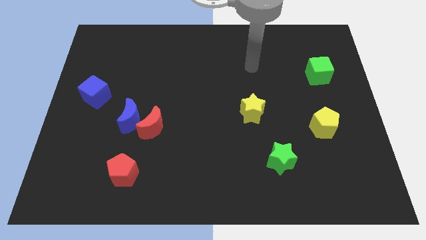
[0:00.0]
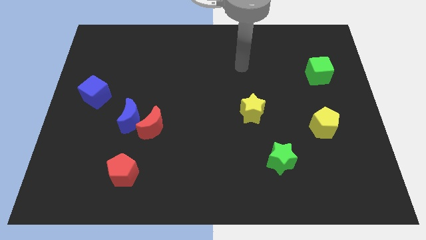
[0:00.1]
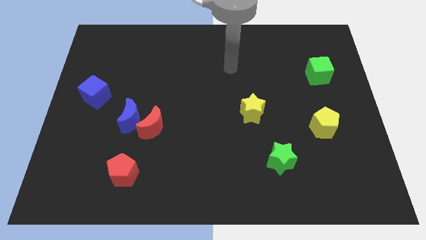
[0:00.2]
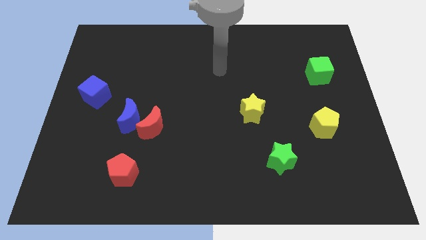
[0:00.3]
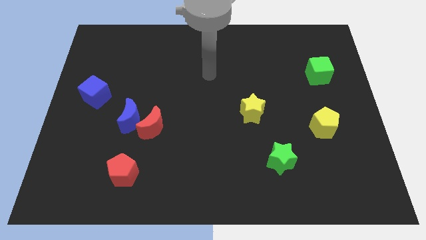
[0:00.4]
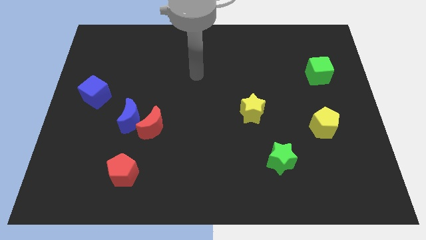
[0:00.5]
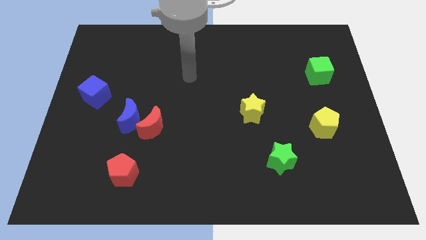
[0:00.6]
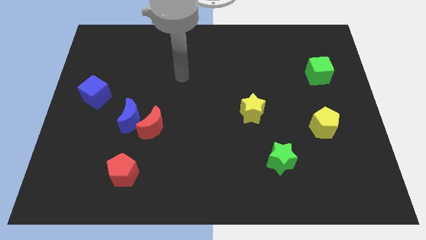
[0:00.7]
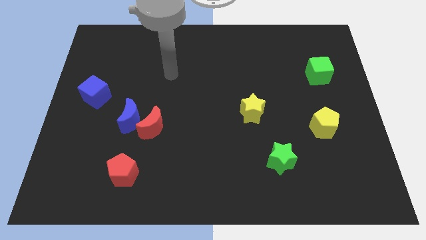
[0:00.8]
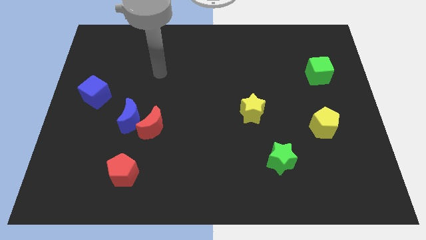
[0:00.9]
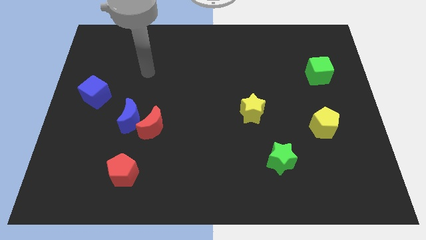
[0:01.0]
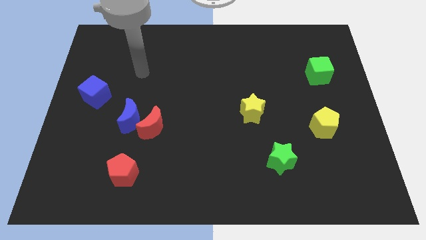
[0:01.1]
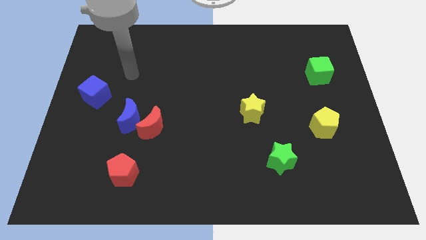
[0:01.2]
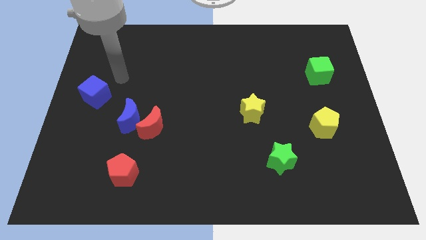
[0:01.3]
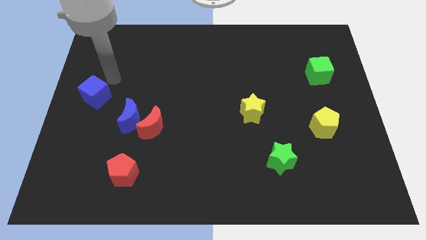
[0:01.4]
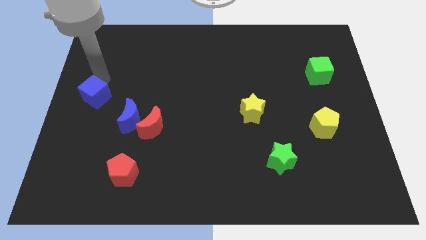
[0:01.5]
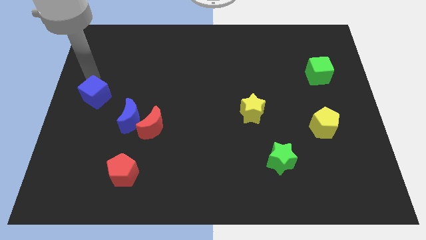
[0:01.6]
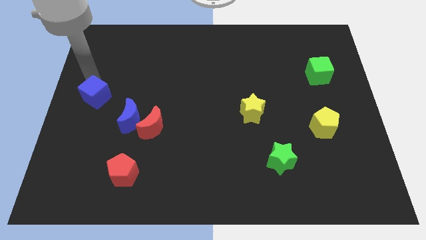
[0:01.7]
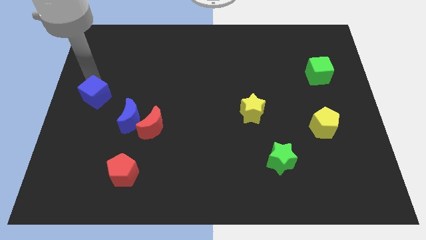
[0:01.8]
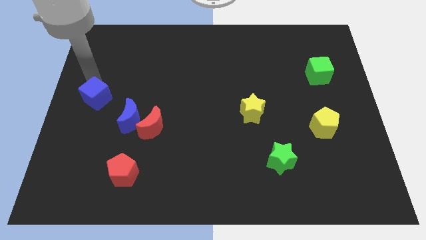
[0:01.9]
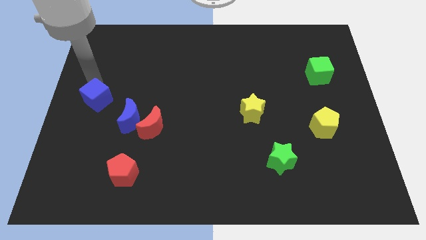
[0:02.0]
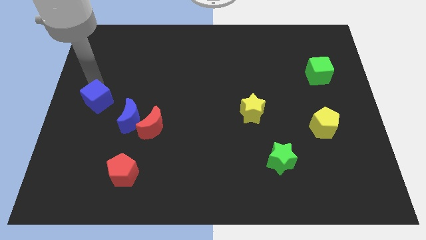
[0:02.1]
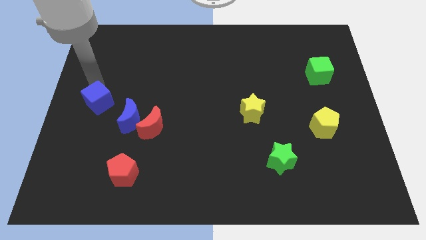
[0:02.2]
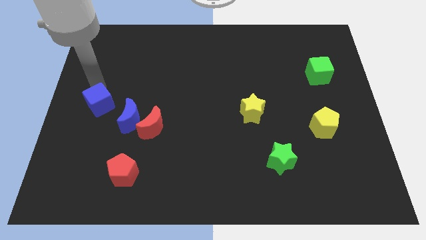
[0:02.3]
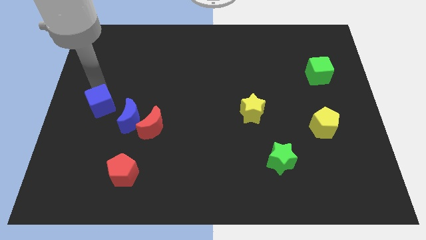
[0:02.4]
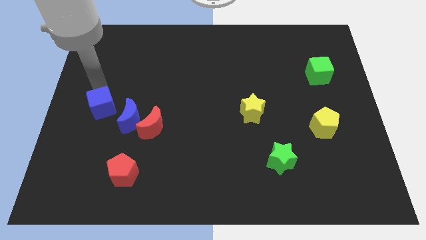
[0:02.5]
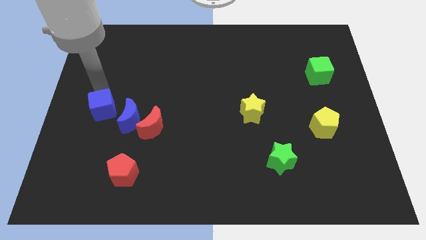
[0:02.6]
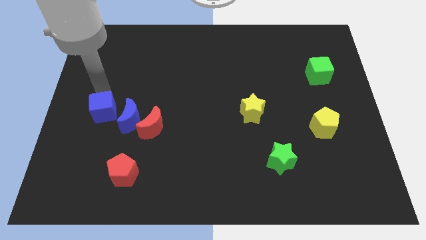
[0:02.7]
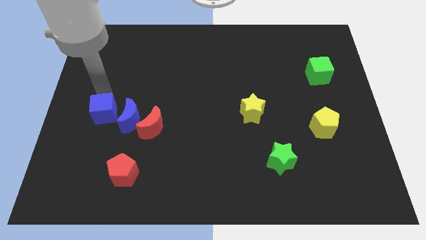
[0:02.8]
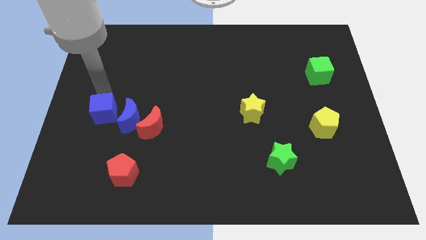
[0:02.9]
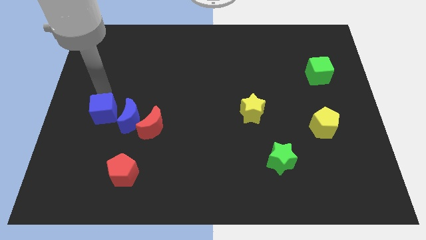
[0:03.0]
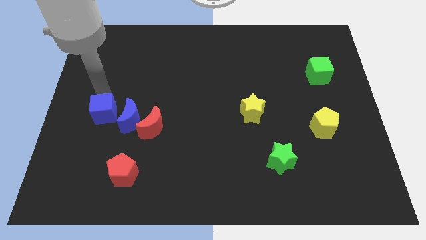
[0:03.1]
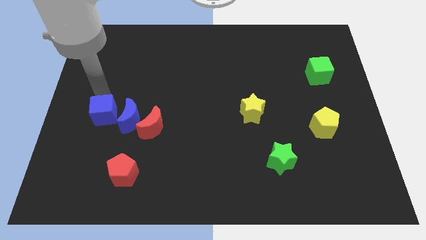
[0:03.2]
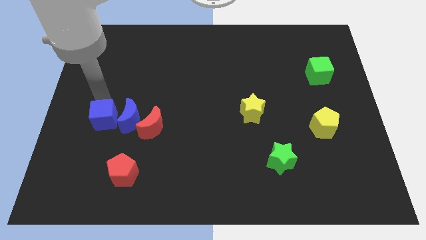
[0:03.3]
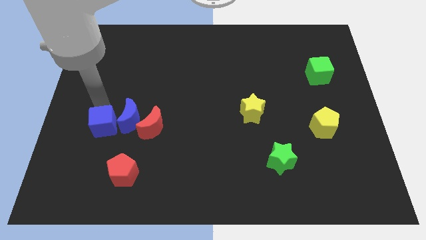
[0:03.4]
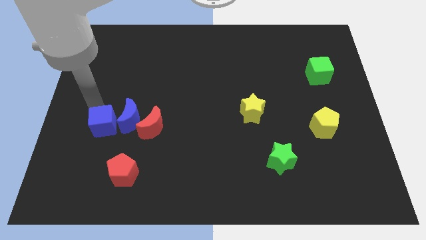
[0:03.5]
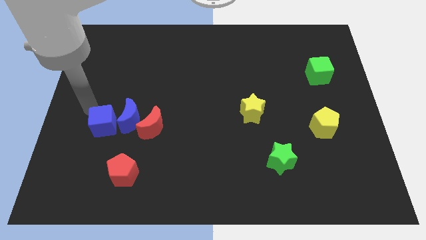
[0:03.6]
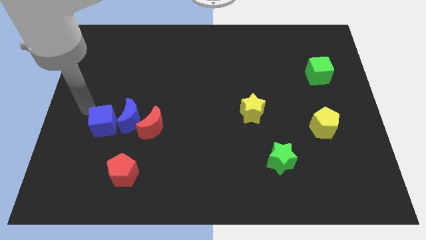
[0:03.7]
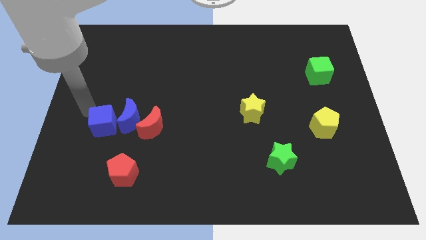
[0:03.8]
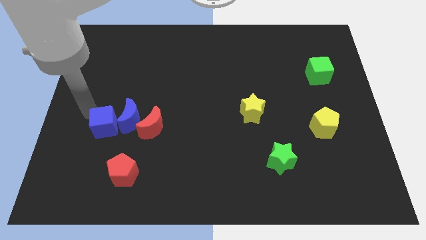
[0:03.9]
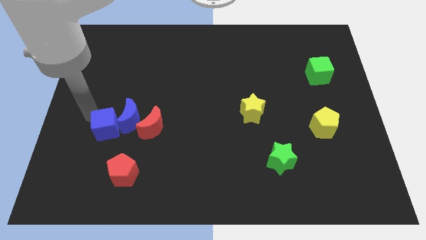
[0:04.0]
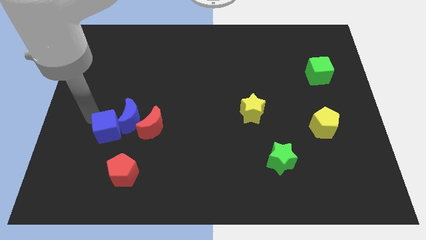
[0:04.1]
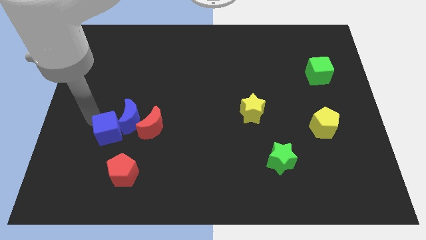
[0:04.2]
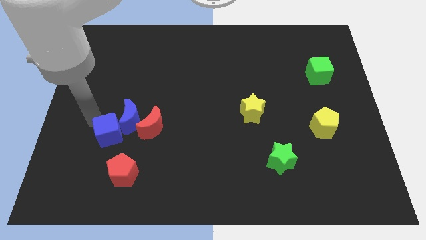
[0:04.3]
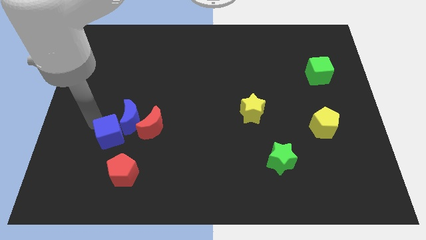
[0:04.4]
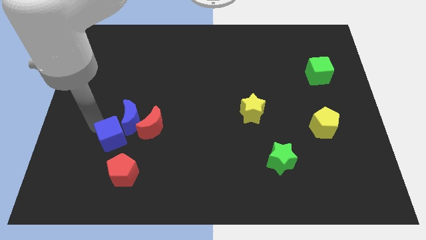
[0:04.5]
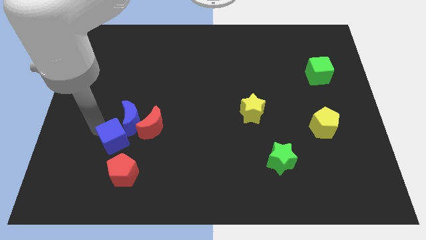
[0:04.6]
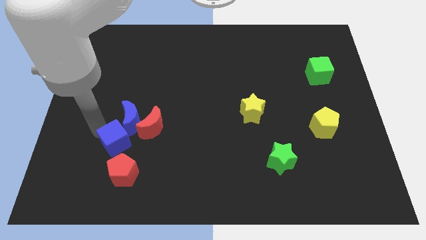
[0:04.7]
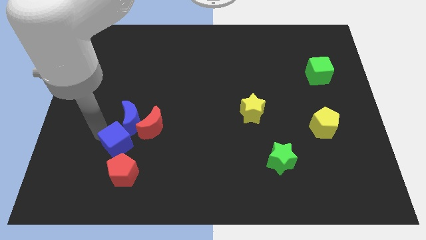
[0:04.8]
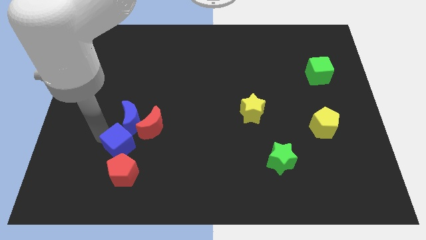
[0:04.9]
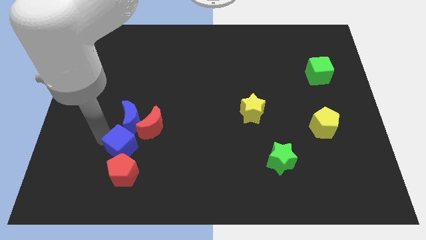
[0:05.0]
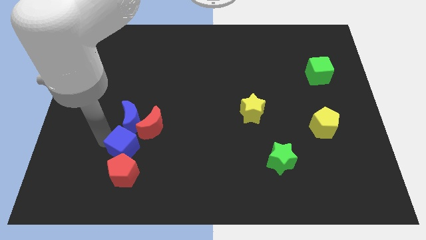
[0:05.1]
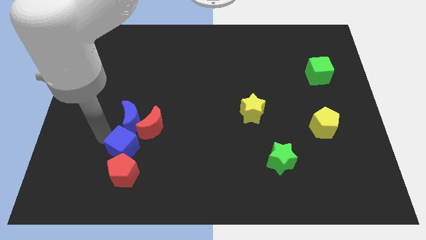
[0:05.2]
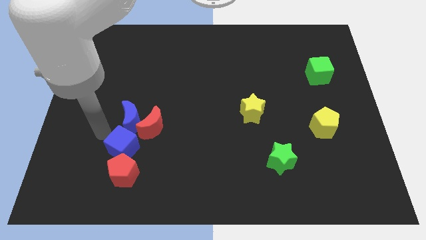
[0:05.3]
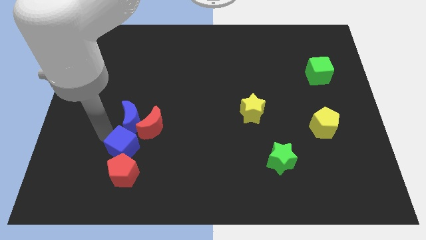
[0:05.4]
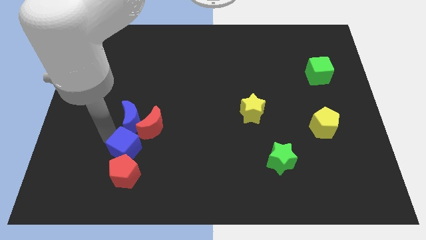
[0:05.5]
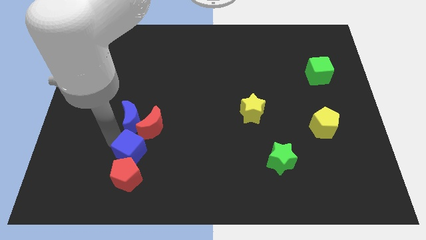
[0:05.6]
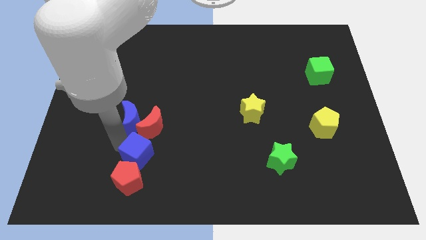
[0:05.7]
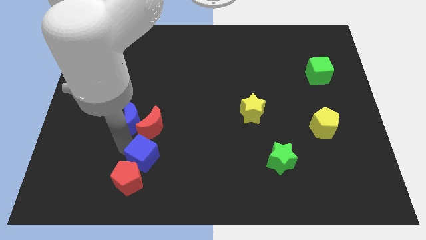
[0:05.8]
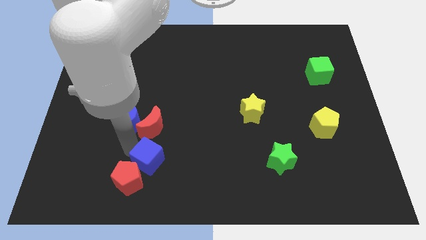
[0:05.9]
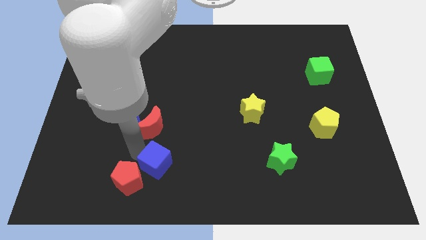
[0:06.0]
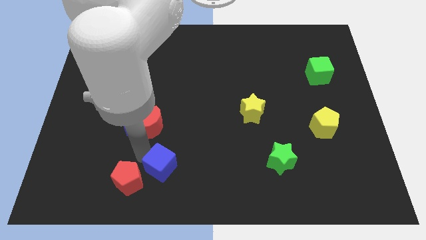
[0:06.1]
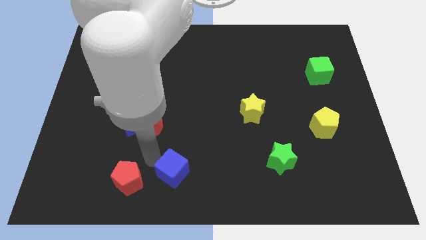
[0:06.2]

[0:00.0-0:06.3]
push the blue cube to the bottom

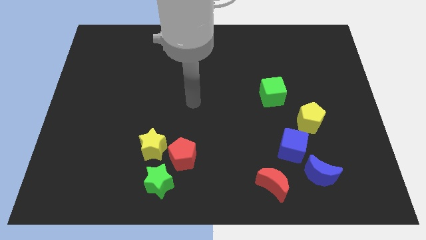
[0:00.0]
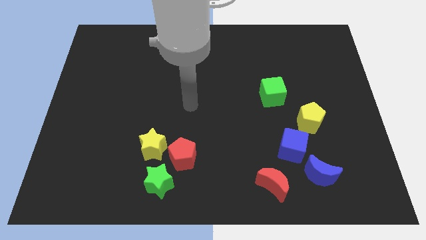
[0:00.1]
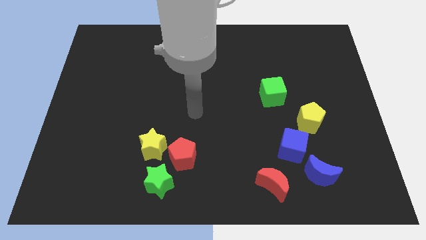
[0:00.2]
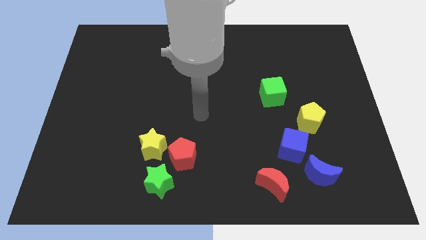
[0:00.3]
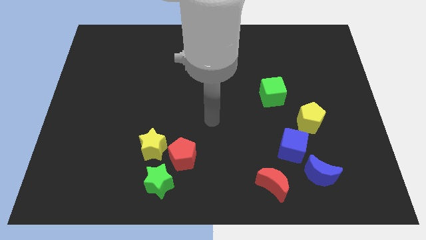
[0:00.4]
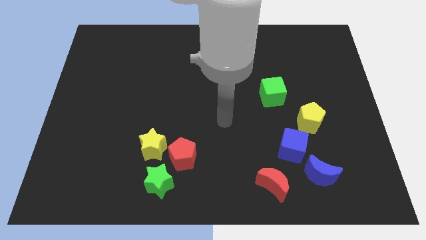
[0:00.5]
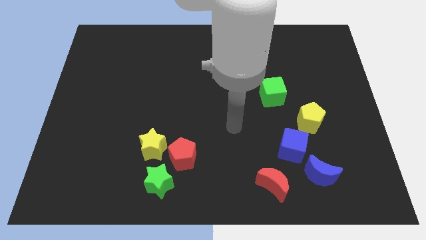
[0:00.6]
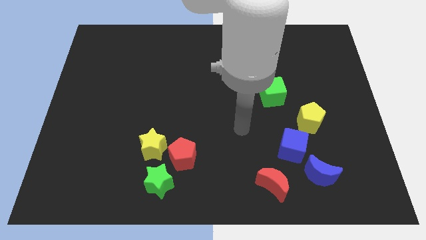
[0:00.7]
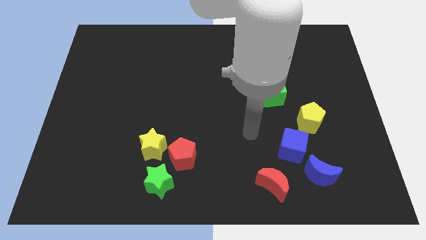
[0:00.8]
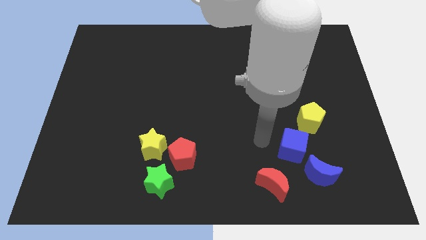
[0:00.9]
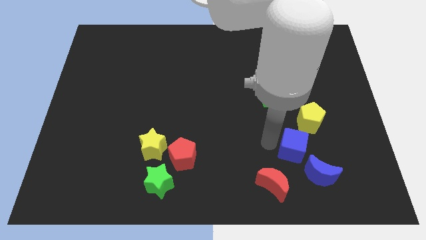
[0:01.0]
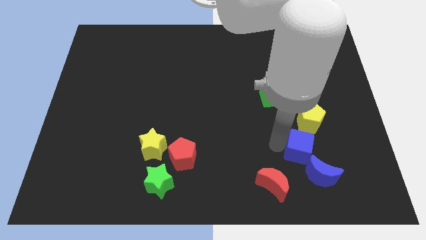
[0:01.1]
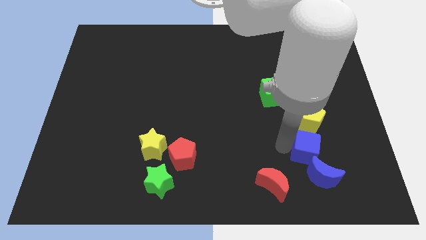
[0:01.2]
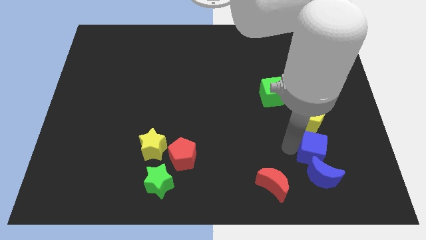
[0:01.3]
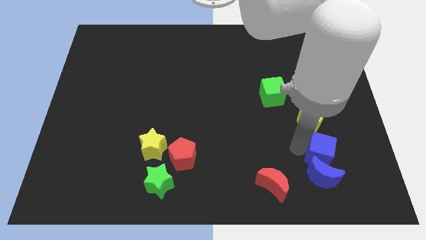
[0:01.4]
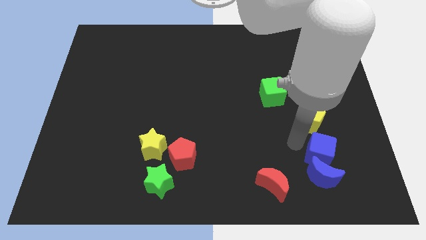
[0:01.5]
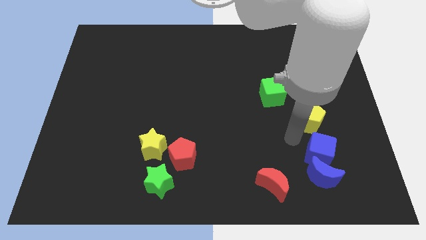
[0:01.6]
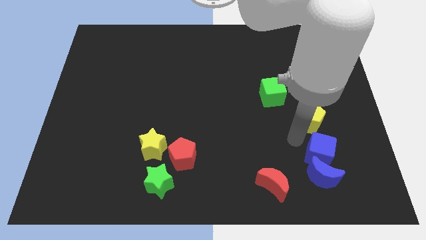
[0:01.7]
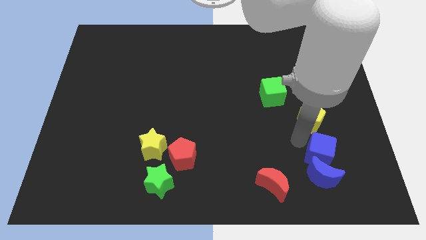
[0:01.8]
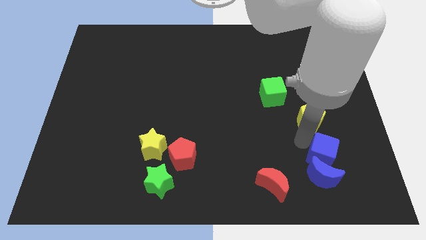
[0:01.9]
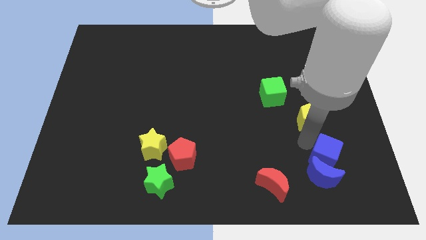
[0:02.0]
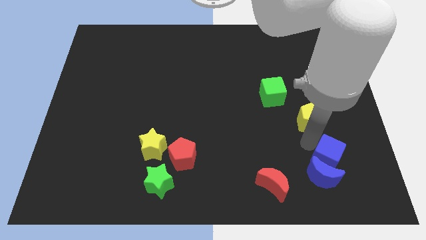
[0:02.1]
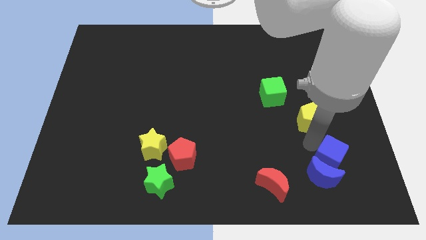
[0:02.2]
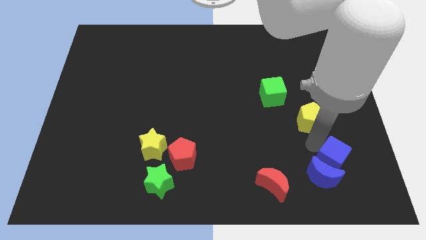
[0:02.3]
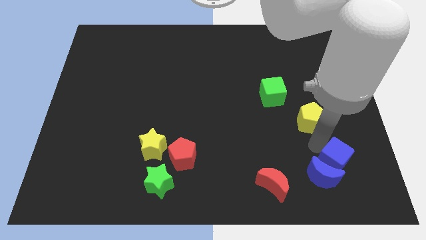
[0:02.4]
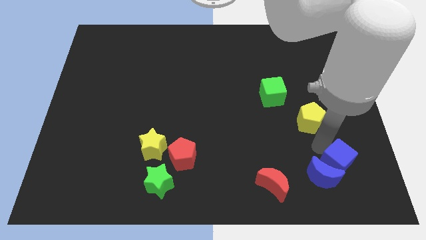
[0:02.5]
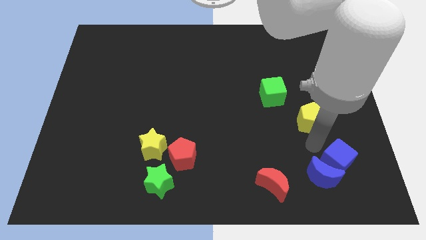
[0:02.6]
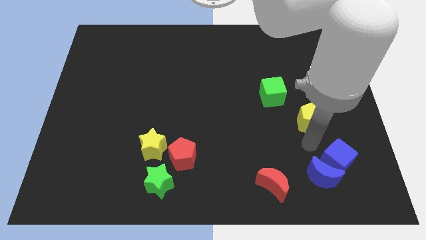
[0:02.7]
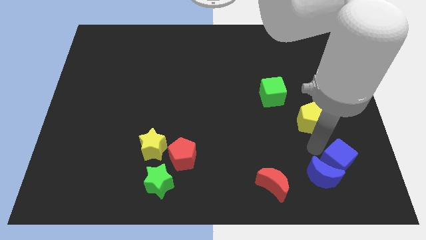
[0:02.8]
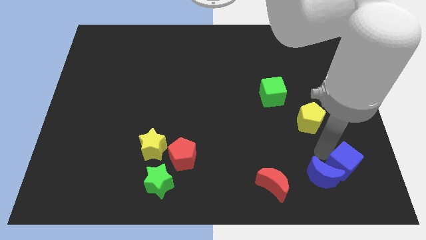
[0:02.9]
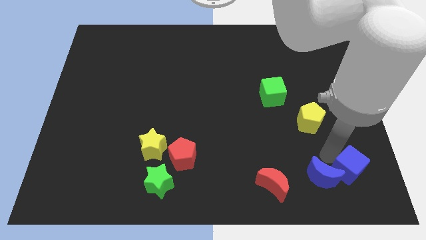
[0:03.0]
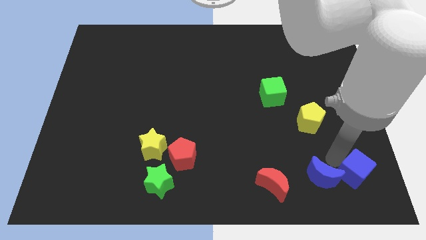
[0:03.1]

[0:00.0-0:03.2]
put the blue cube to the bottom right
